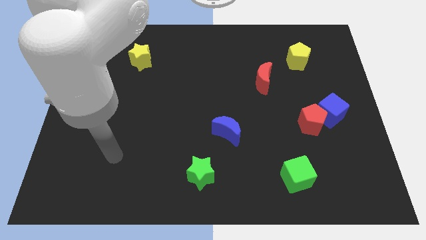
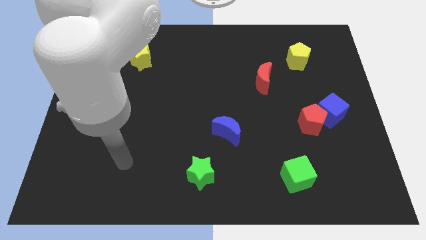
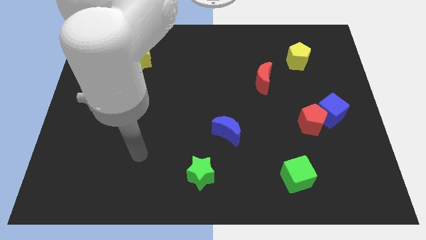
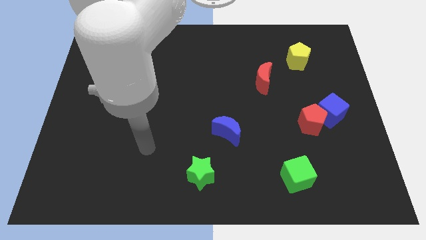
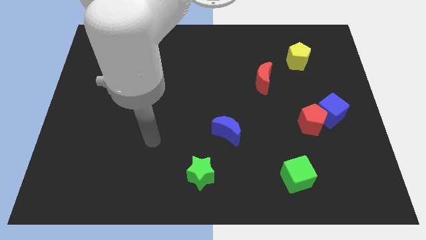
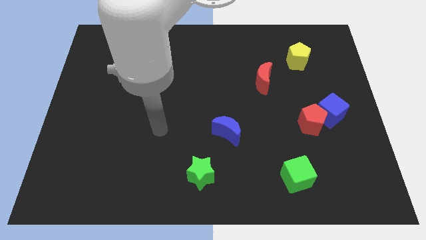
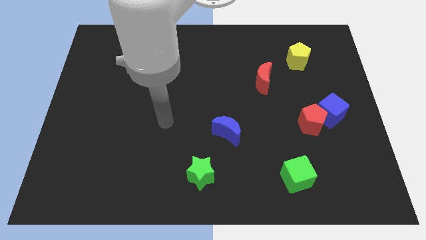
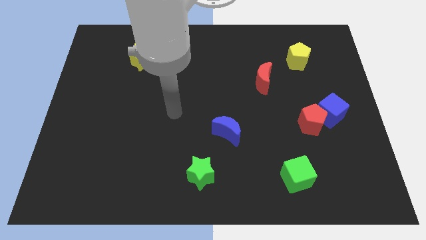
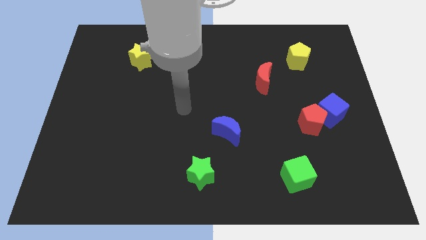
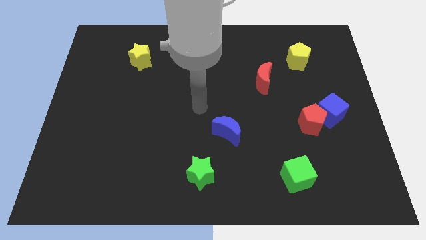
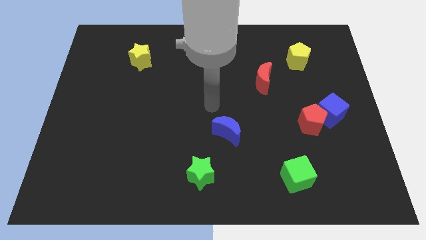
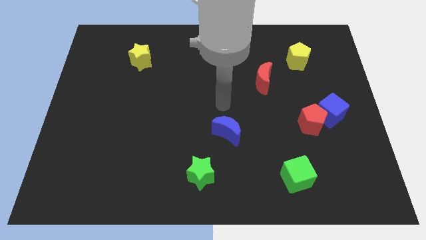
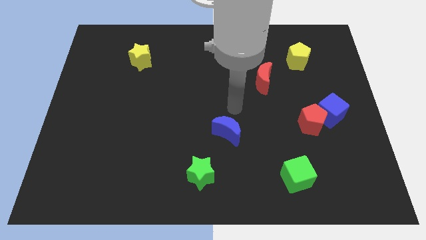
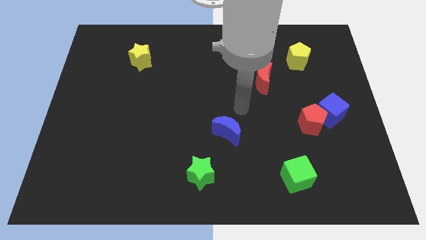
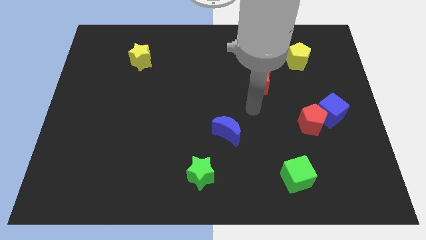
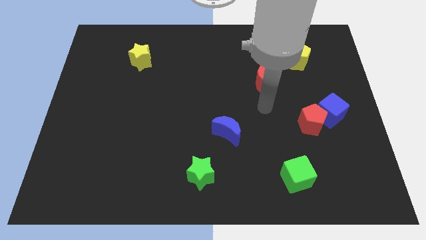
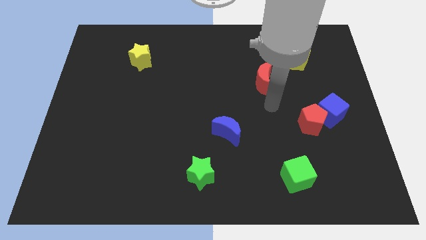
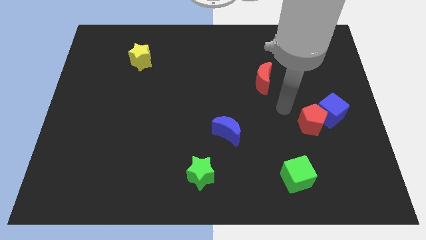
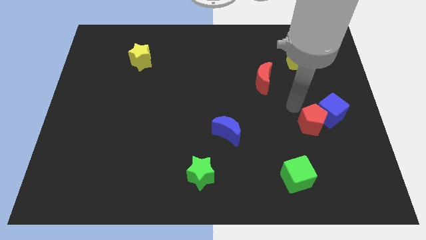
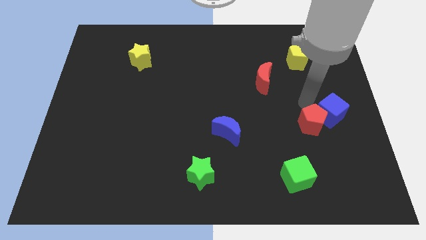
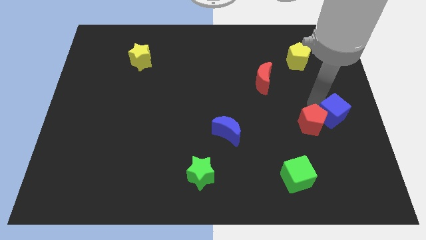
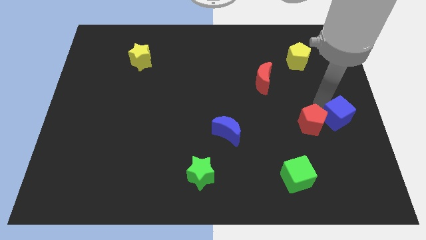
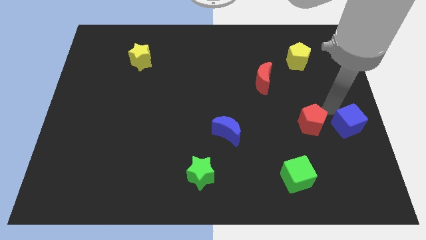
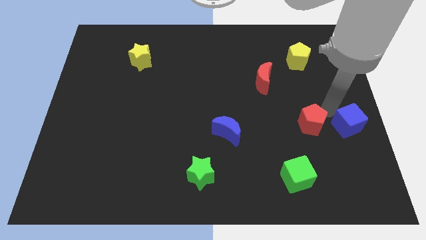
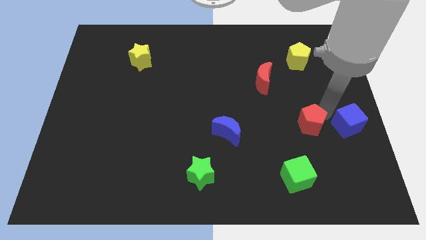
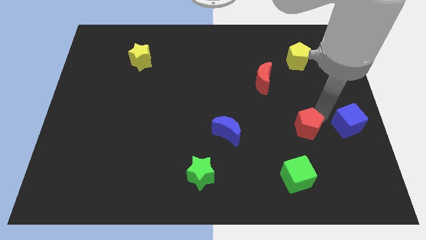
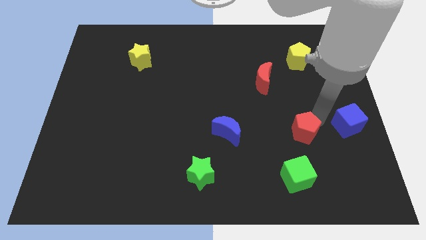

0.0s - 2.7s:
pull the red pentagon apart from the blue cube

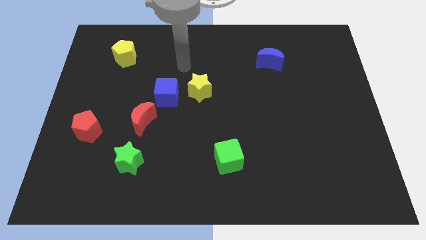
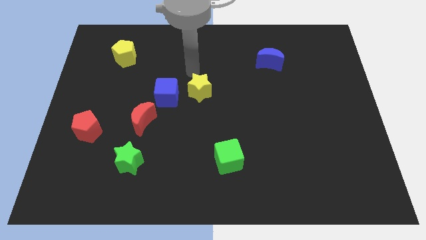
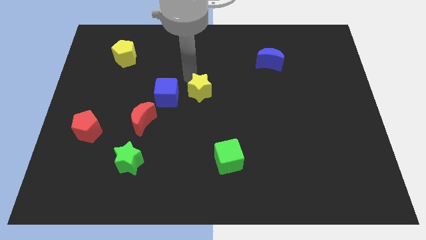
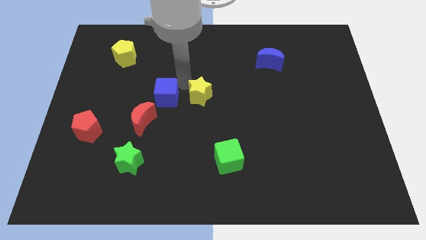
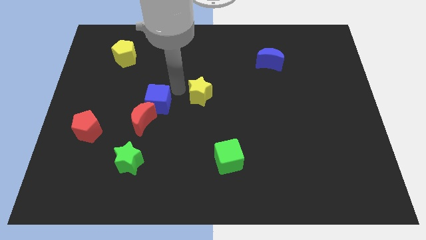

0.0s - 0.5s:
move the yellow star away from the blue cube

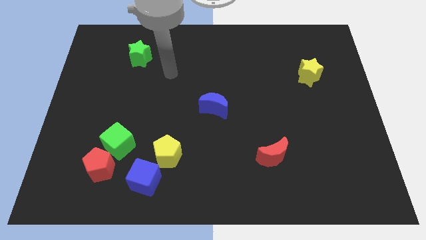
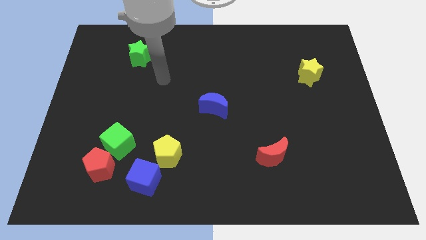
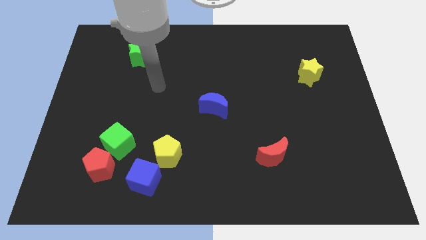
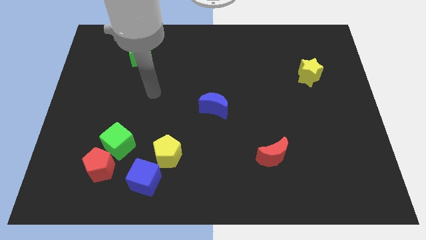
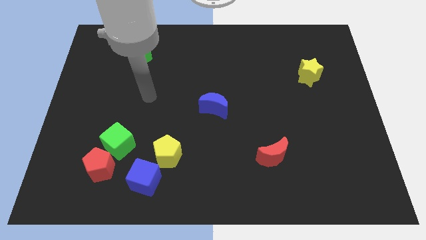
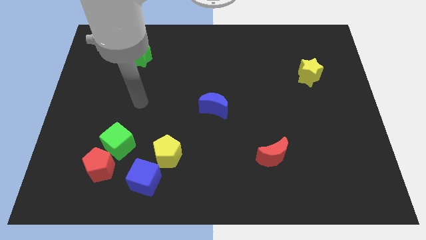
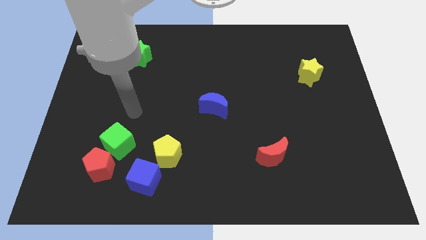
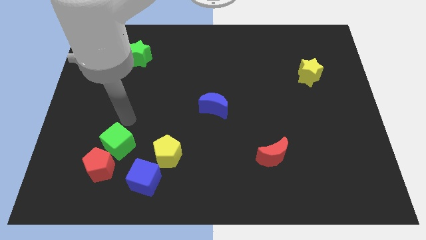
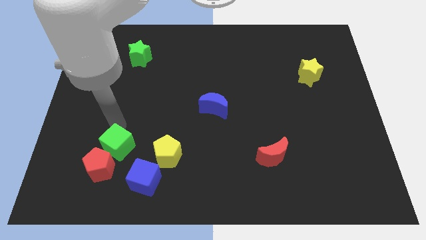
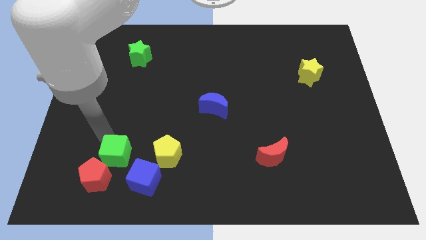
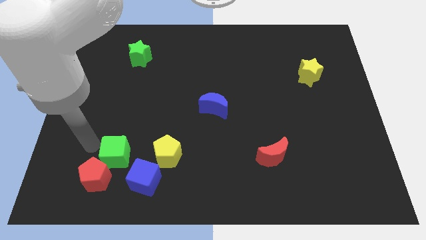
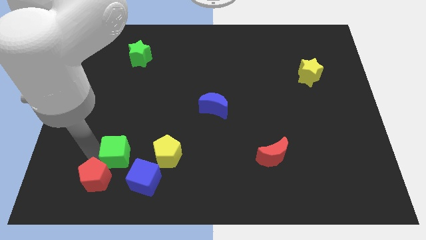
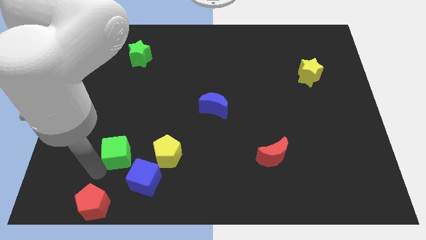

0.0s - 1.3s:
pull the green cube apart from the red pentagon

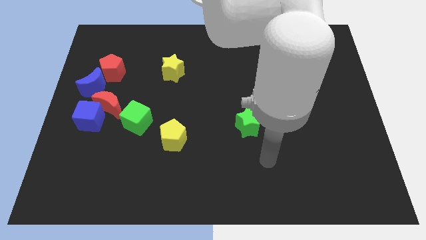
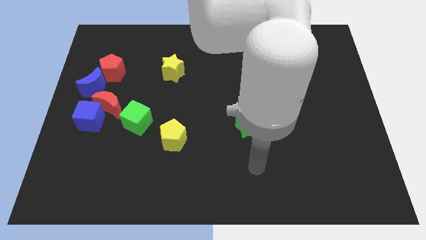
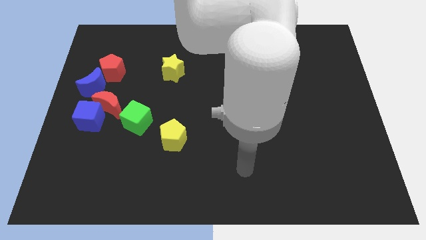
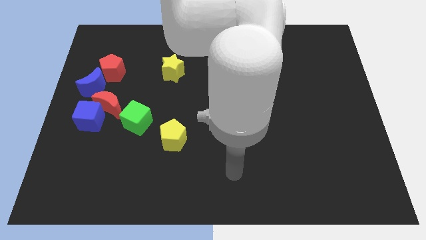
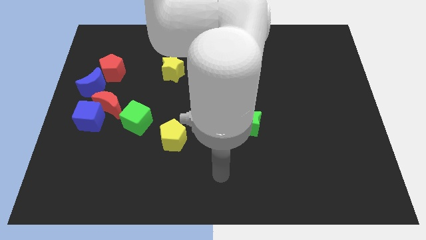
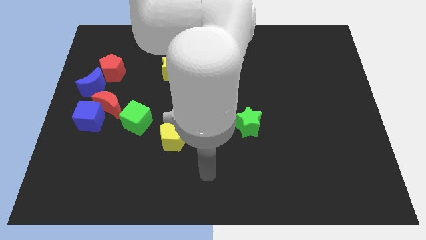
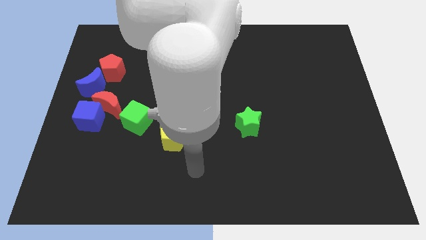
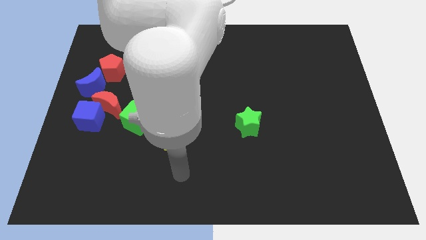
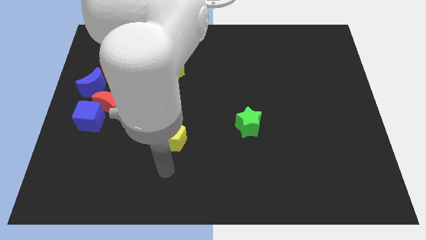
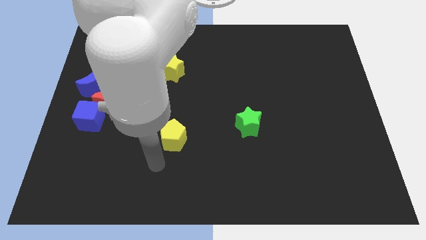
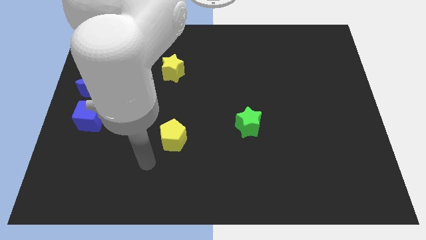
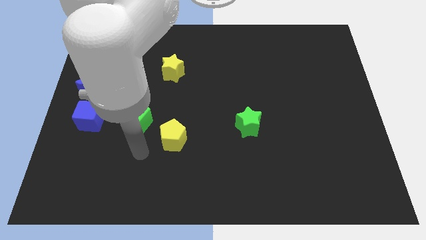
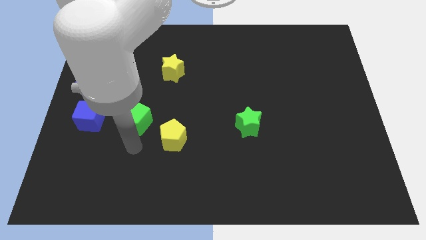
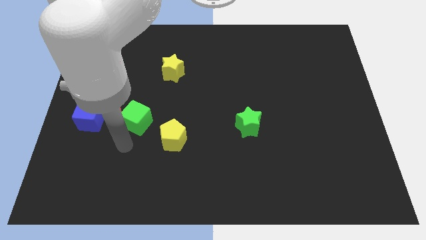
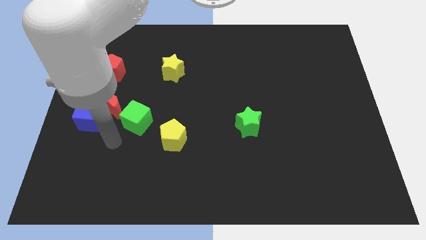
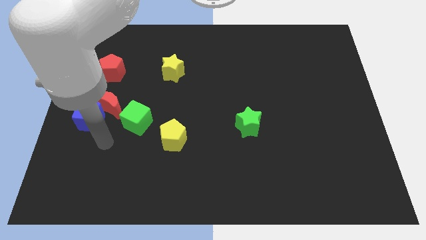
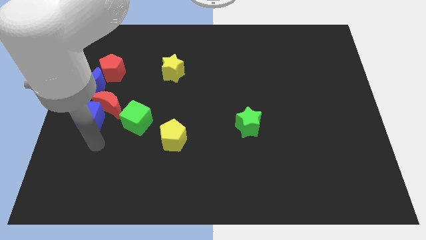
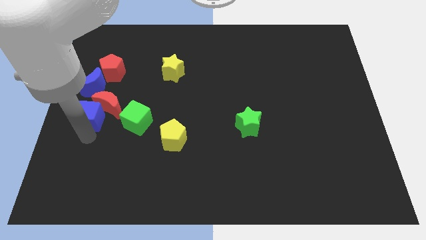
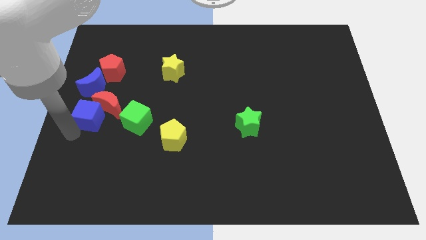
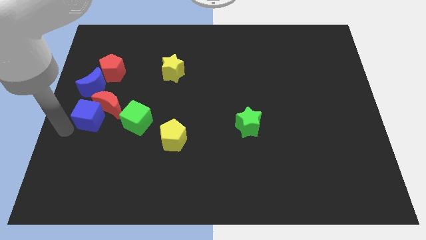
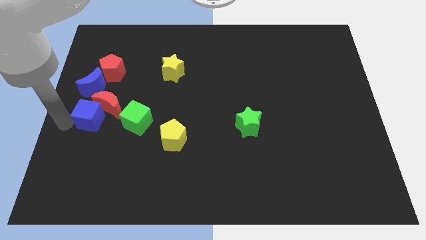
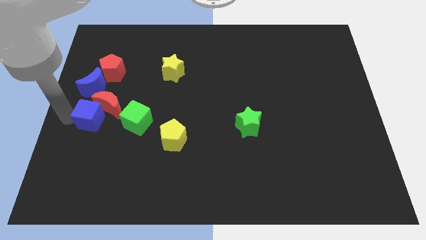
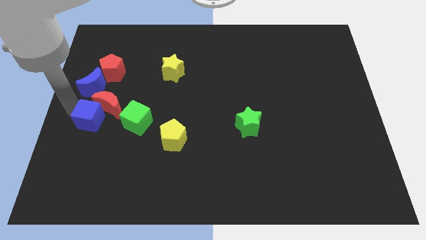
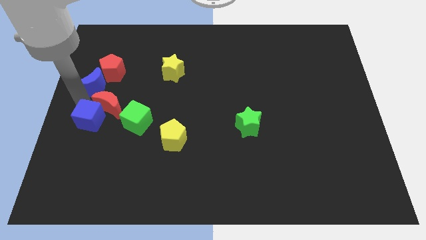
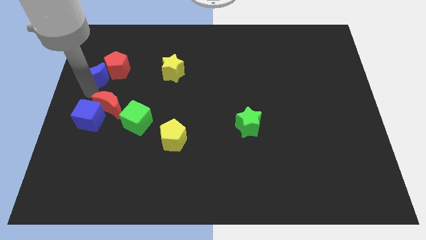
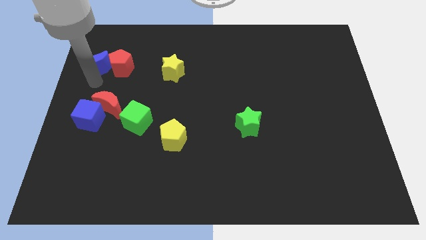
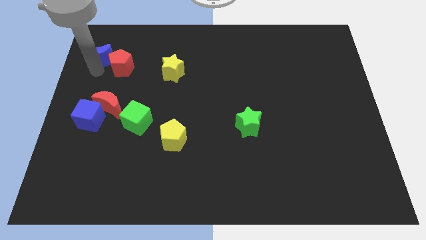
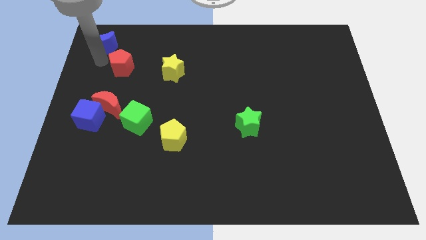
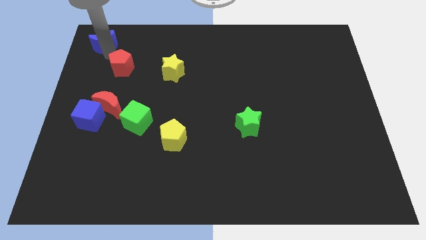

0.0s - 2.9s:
move the red pentagon away from the blue moon

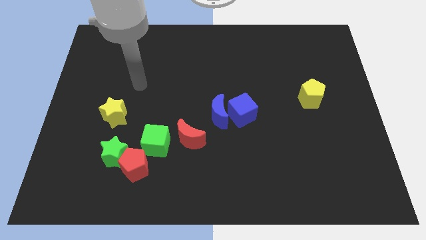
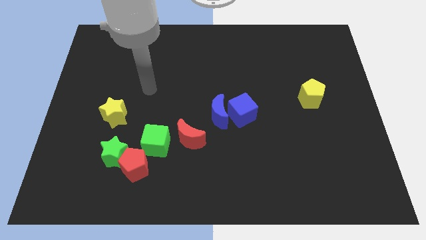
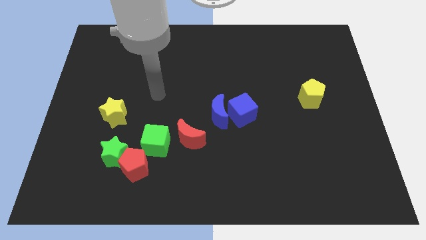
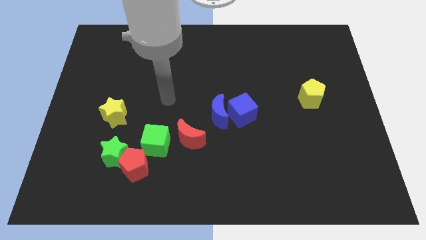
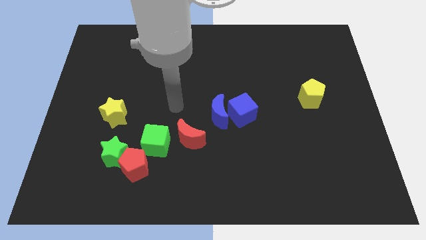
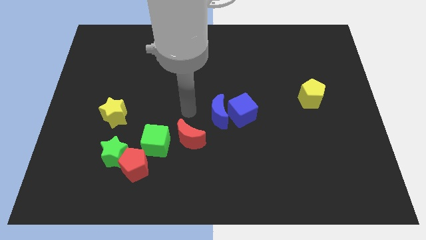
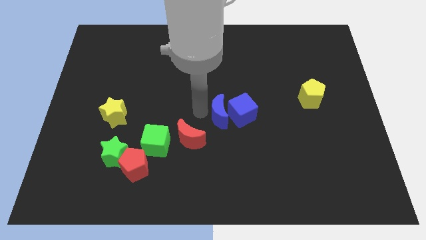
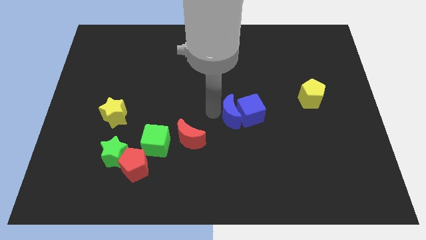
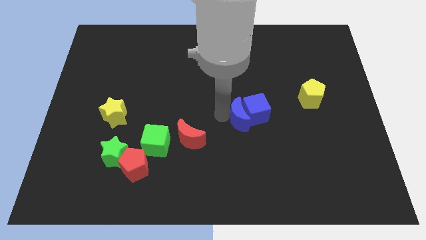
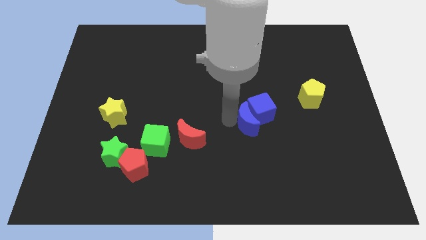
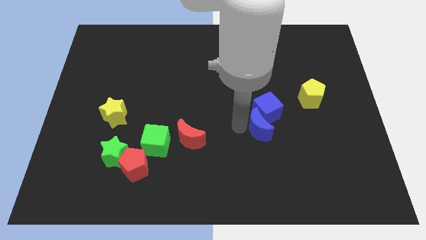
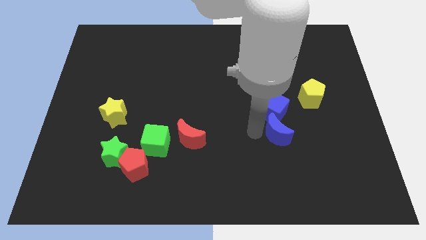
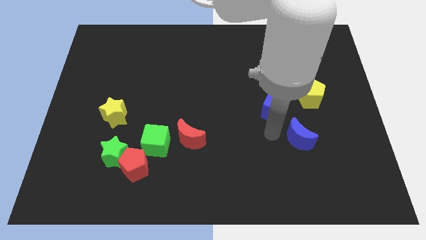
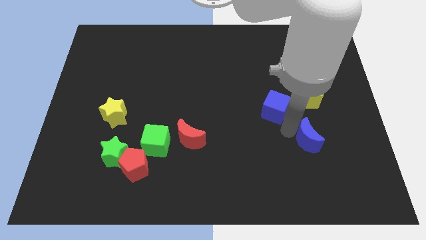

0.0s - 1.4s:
pull the blue cube apart from the blue moon

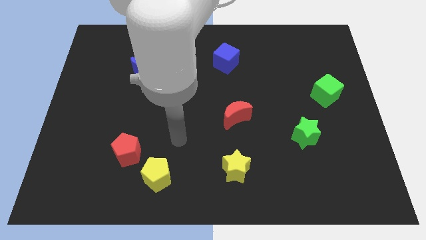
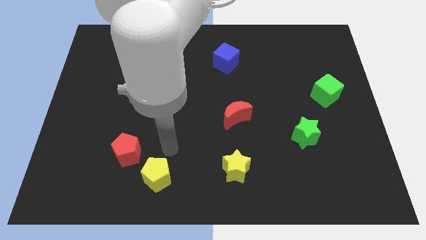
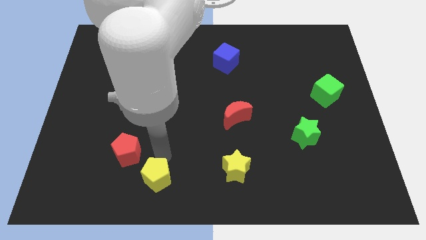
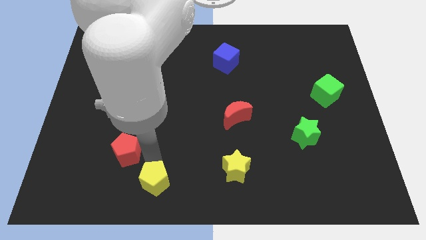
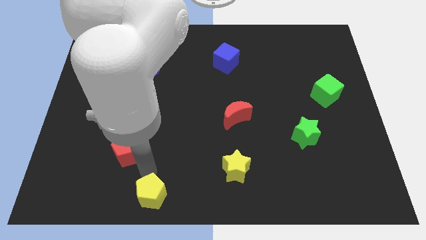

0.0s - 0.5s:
move the red pentagon away from the yellow pentagon
